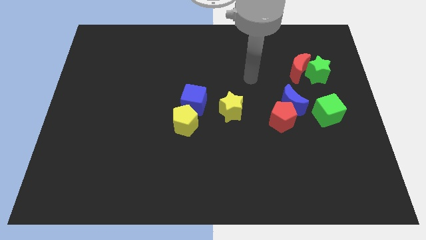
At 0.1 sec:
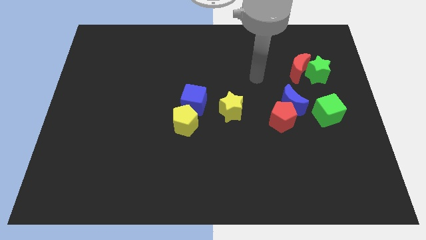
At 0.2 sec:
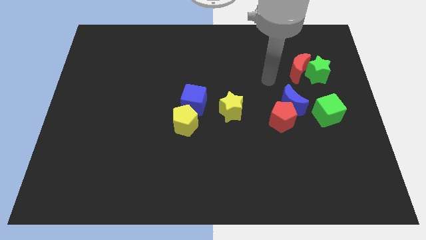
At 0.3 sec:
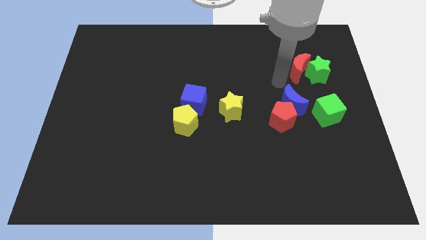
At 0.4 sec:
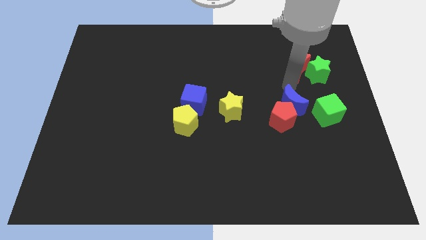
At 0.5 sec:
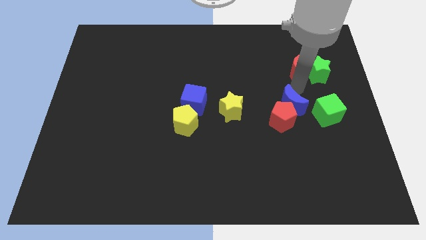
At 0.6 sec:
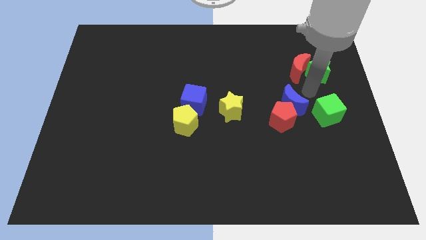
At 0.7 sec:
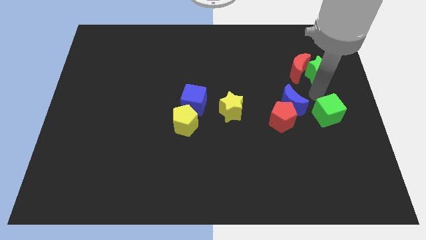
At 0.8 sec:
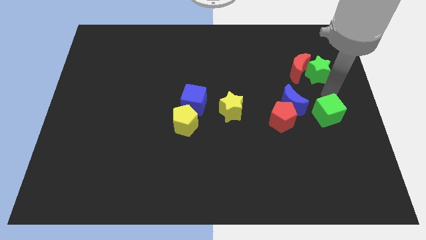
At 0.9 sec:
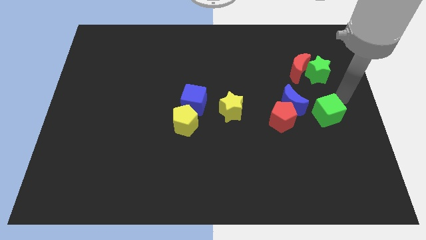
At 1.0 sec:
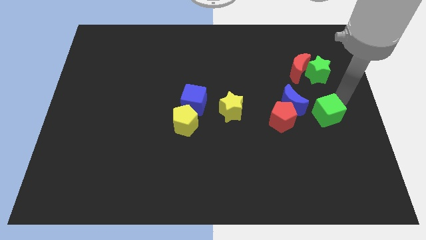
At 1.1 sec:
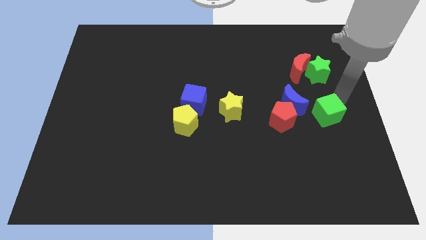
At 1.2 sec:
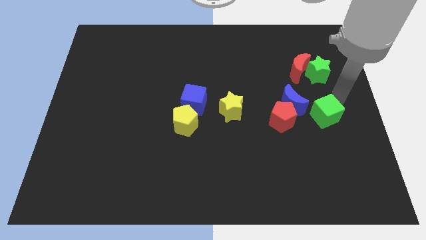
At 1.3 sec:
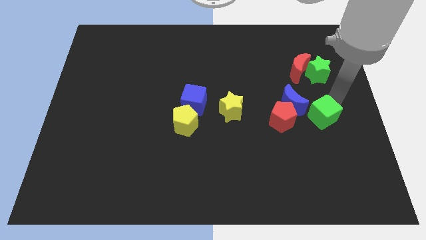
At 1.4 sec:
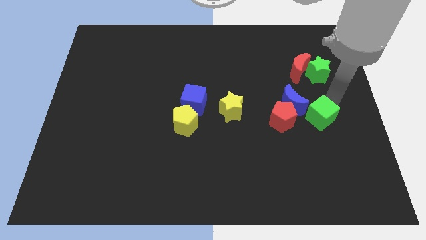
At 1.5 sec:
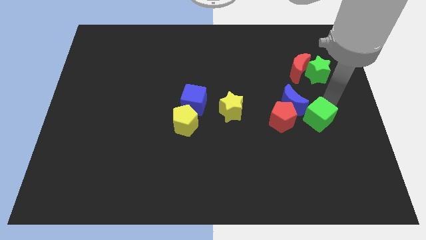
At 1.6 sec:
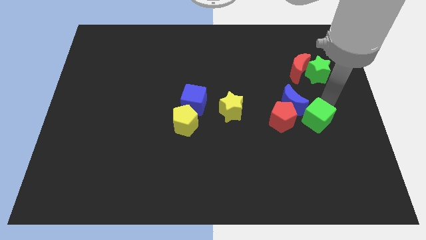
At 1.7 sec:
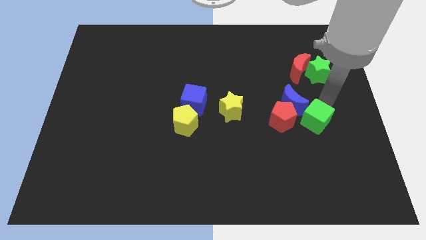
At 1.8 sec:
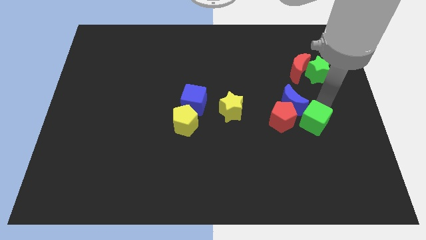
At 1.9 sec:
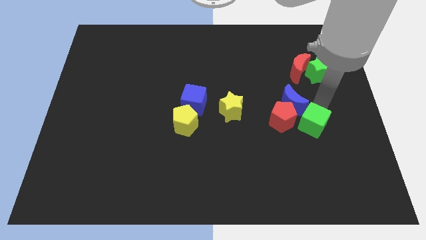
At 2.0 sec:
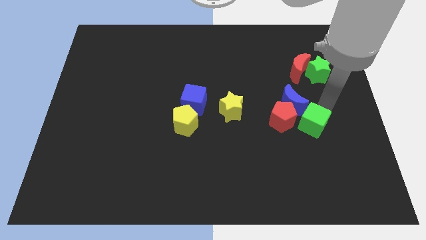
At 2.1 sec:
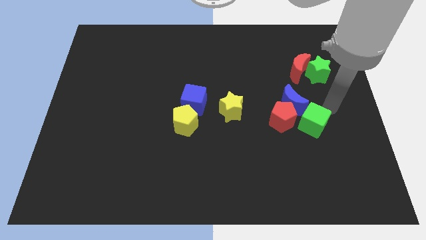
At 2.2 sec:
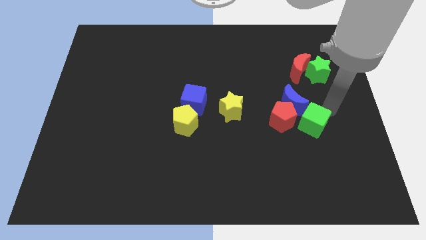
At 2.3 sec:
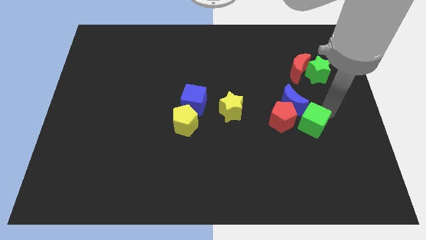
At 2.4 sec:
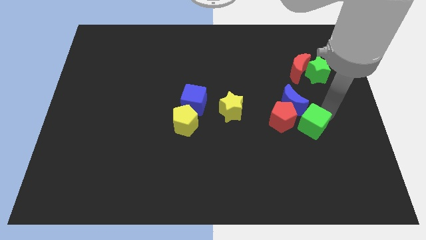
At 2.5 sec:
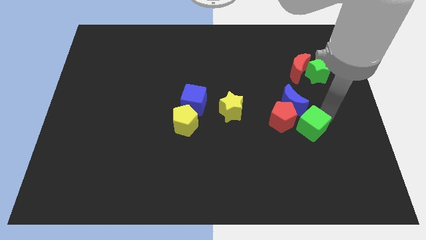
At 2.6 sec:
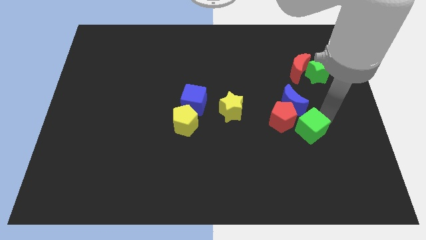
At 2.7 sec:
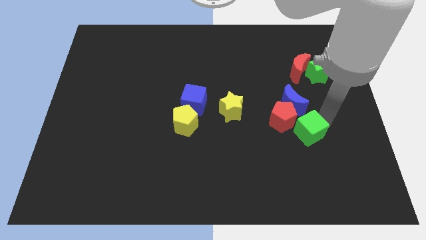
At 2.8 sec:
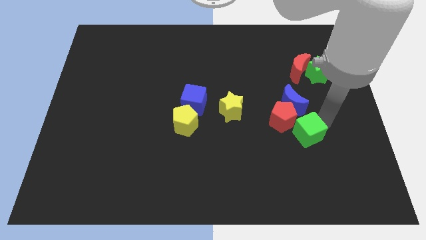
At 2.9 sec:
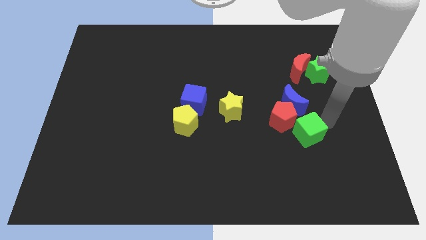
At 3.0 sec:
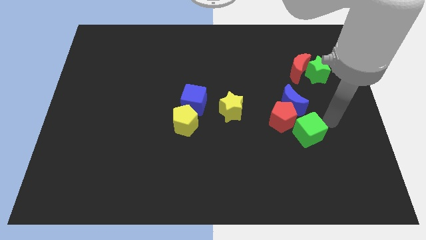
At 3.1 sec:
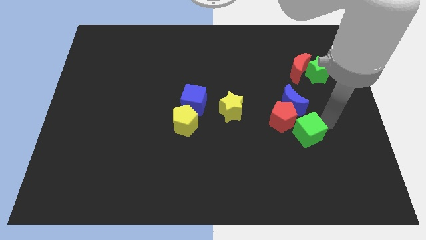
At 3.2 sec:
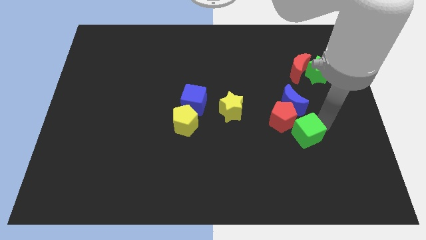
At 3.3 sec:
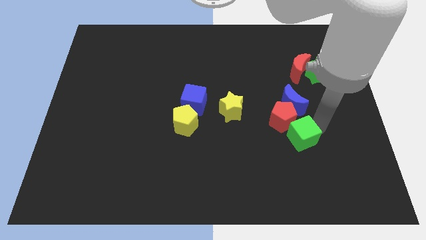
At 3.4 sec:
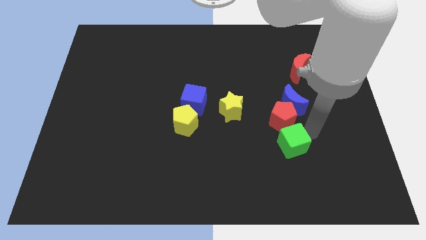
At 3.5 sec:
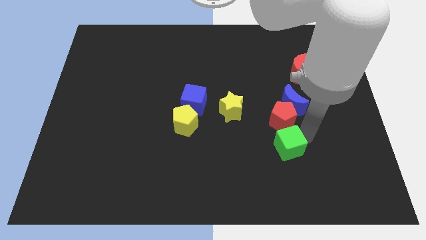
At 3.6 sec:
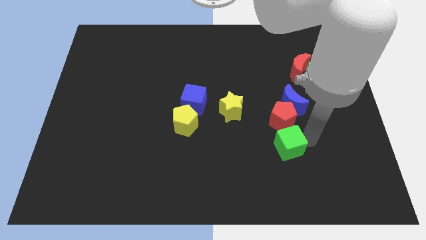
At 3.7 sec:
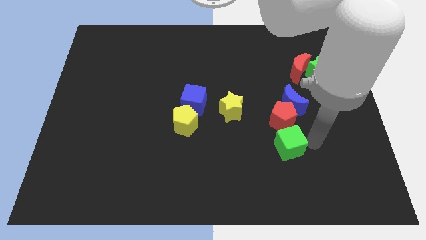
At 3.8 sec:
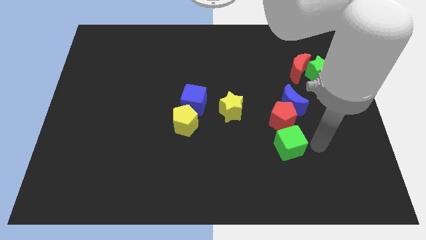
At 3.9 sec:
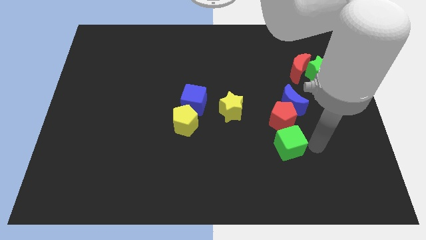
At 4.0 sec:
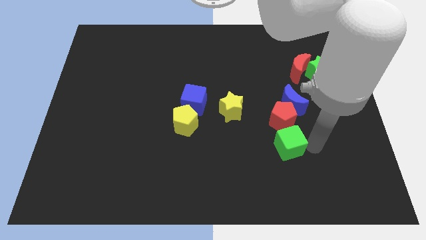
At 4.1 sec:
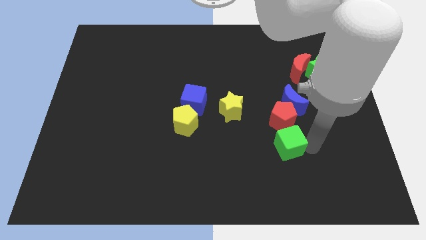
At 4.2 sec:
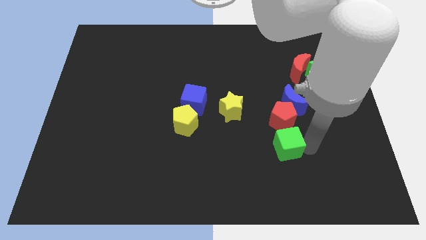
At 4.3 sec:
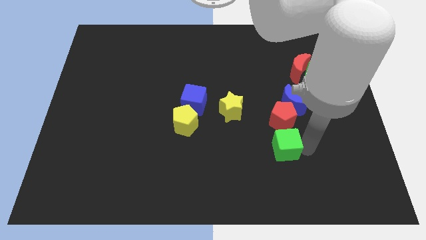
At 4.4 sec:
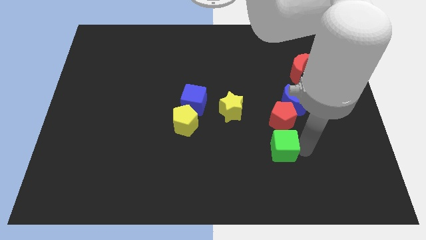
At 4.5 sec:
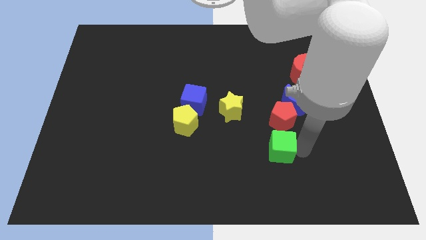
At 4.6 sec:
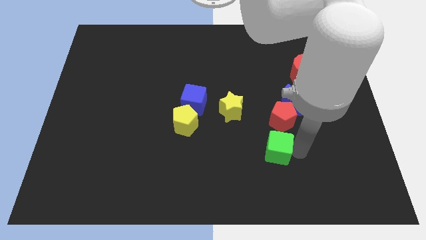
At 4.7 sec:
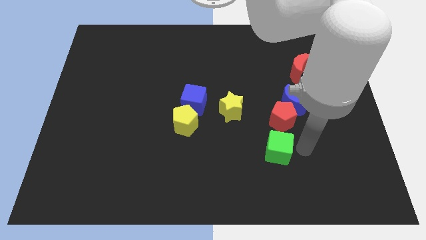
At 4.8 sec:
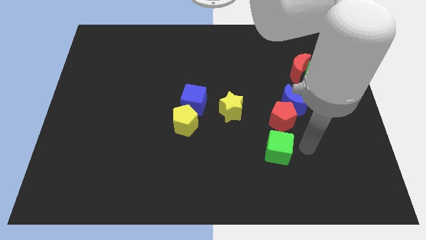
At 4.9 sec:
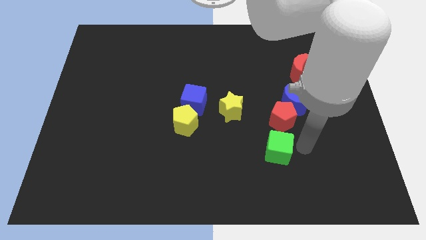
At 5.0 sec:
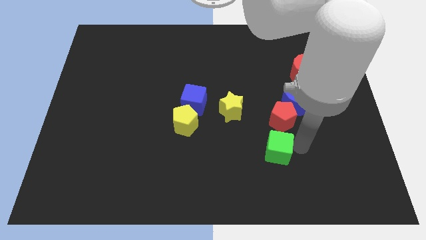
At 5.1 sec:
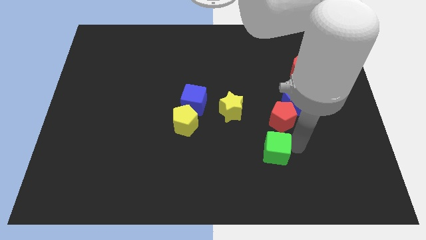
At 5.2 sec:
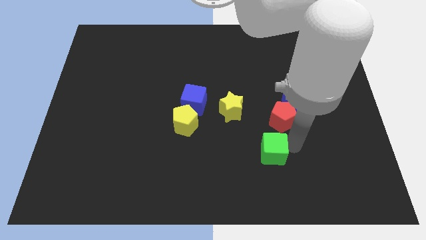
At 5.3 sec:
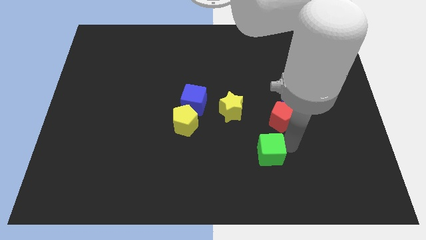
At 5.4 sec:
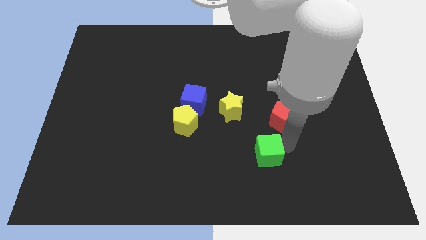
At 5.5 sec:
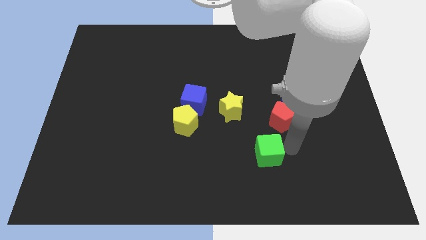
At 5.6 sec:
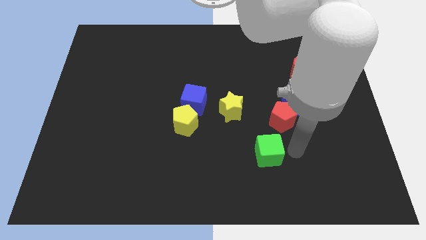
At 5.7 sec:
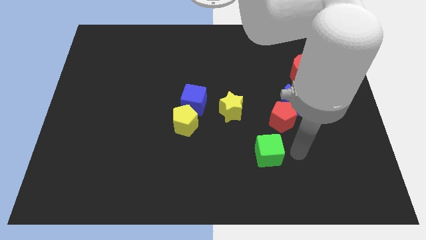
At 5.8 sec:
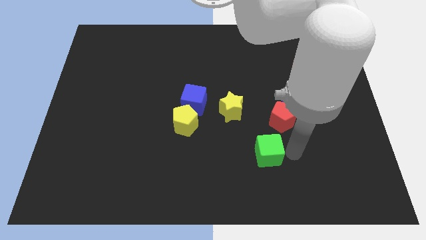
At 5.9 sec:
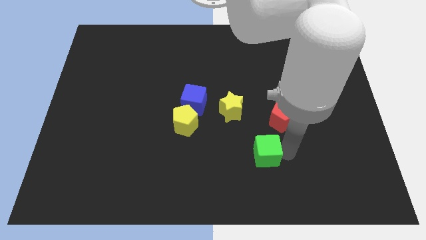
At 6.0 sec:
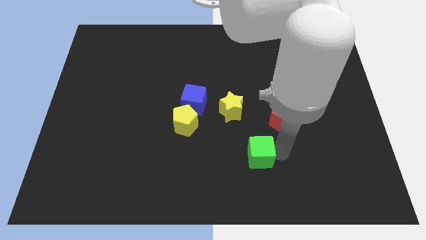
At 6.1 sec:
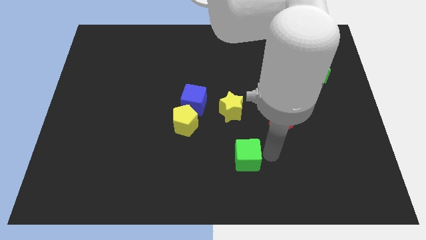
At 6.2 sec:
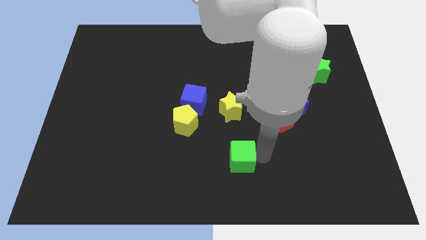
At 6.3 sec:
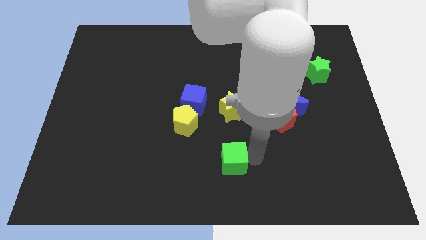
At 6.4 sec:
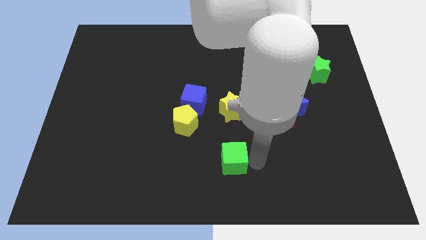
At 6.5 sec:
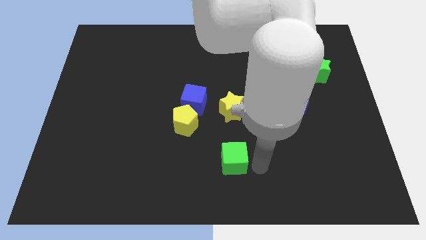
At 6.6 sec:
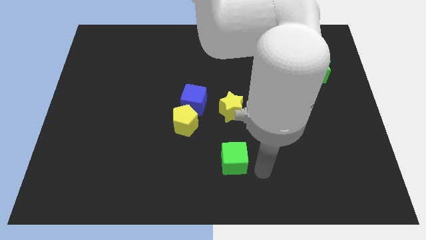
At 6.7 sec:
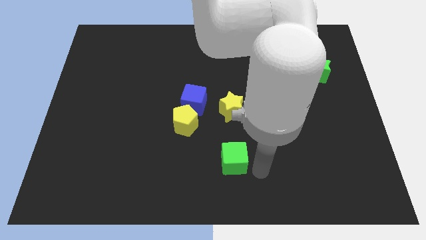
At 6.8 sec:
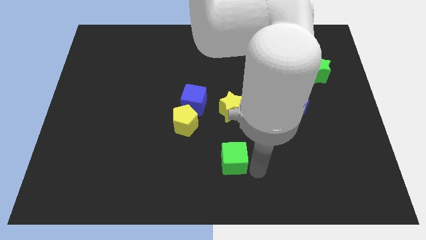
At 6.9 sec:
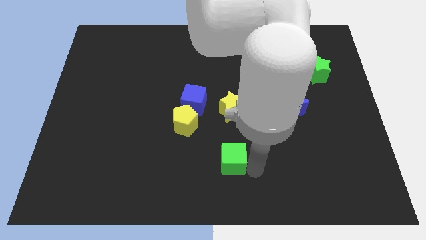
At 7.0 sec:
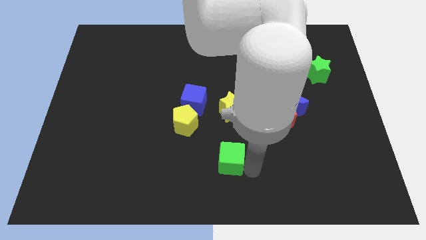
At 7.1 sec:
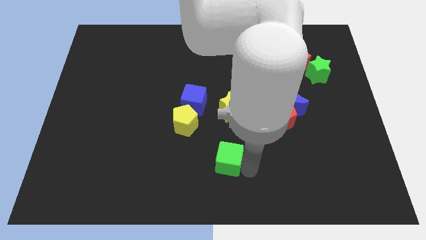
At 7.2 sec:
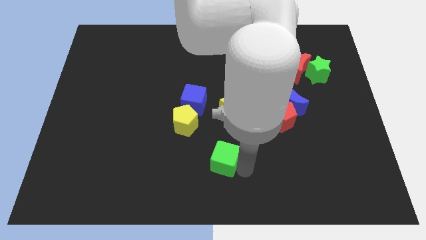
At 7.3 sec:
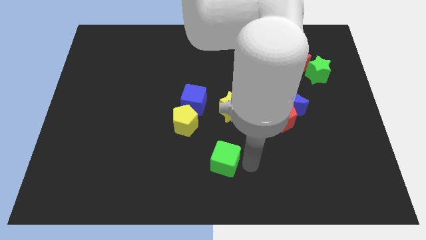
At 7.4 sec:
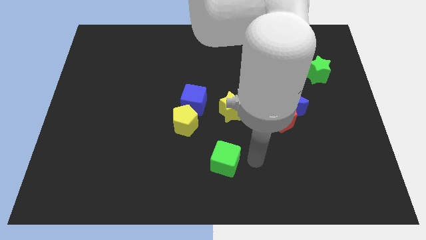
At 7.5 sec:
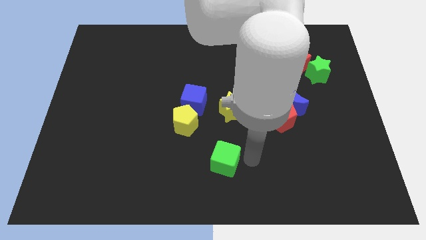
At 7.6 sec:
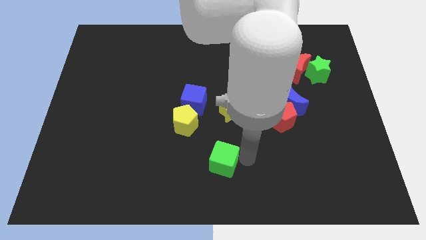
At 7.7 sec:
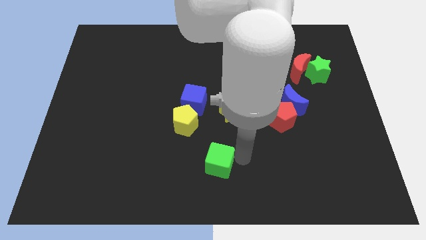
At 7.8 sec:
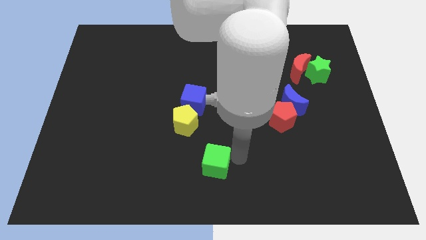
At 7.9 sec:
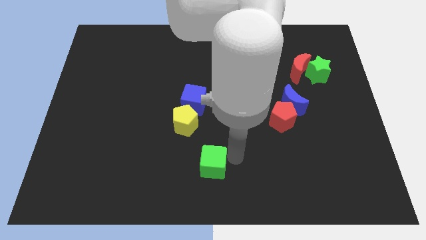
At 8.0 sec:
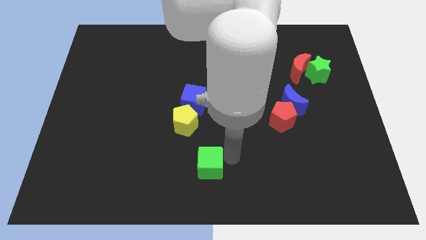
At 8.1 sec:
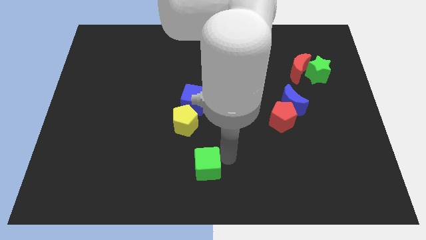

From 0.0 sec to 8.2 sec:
move the green cube to the bottom side of the yellow pentagon
